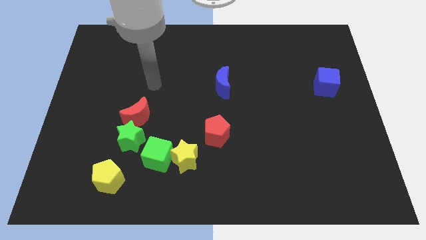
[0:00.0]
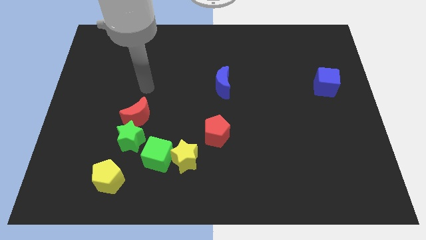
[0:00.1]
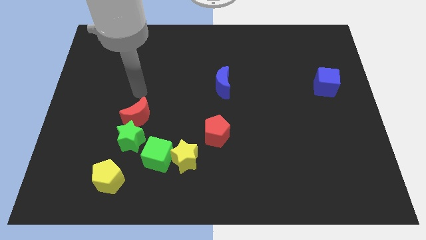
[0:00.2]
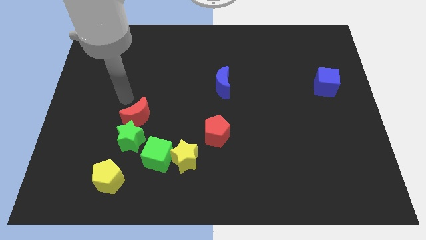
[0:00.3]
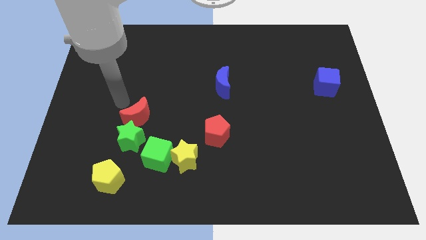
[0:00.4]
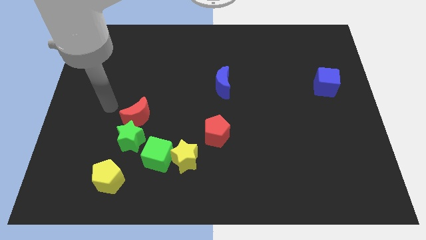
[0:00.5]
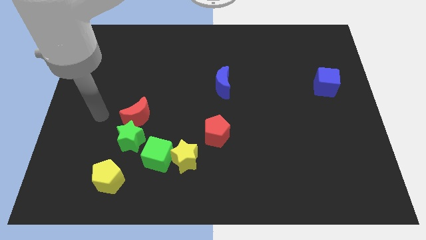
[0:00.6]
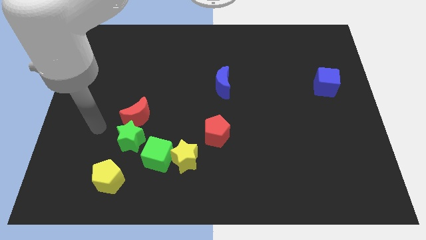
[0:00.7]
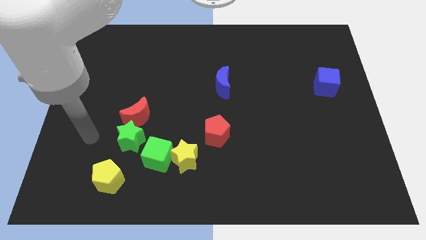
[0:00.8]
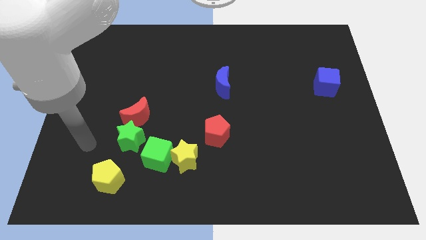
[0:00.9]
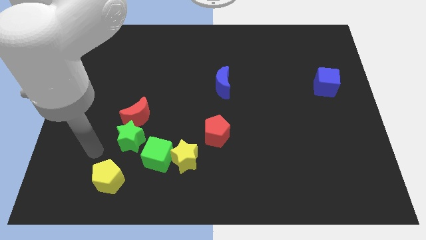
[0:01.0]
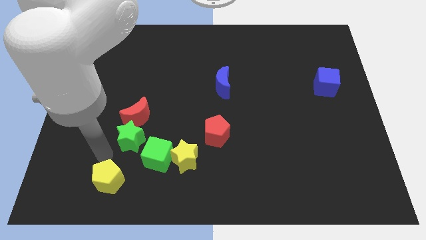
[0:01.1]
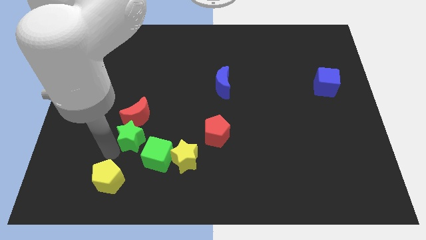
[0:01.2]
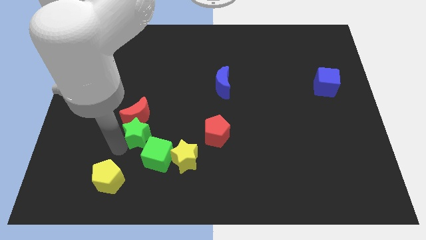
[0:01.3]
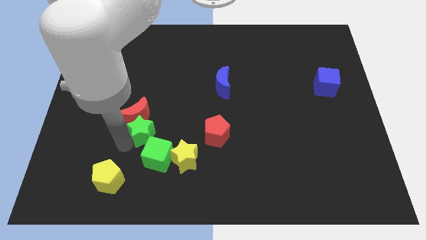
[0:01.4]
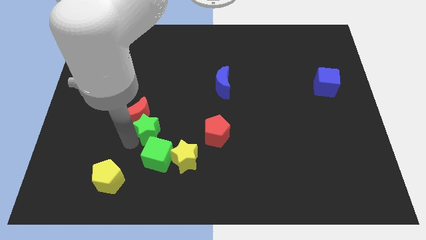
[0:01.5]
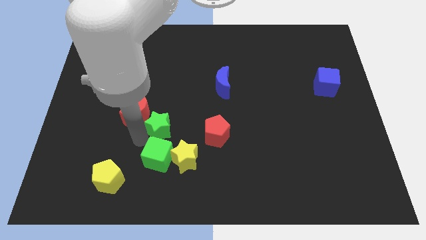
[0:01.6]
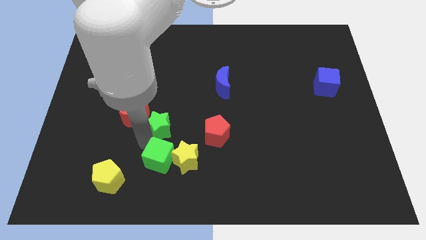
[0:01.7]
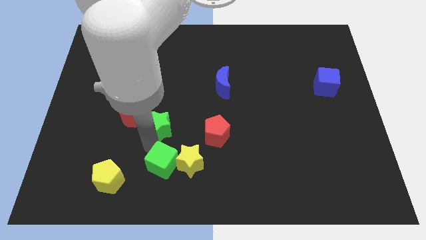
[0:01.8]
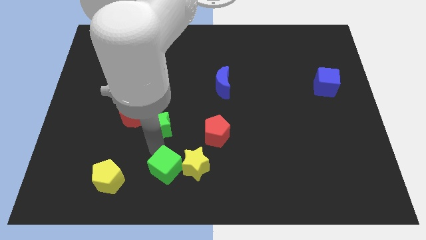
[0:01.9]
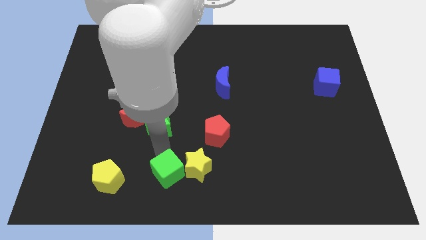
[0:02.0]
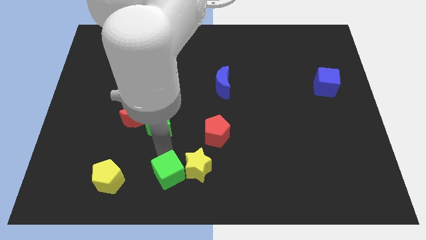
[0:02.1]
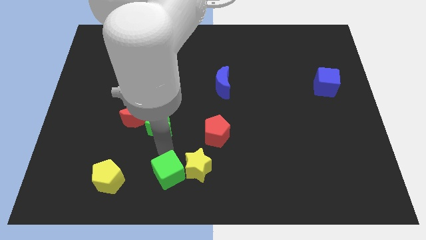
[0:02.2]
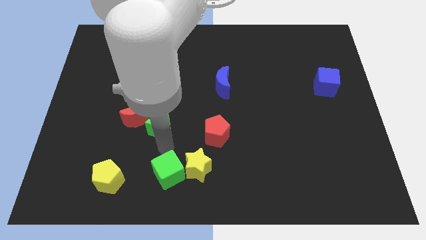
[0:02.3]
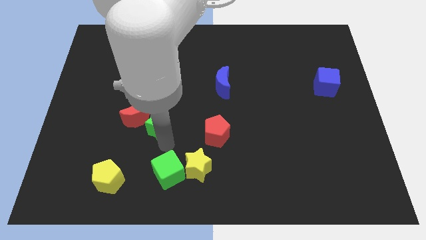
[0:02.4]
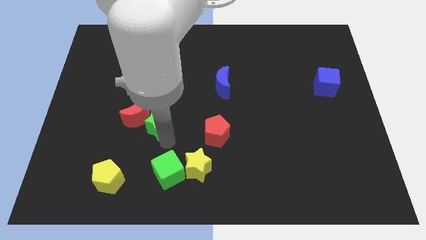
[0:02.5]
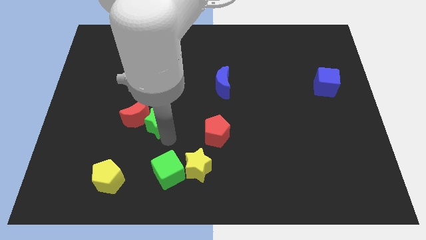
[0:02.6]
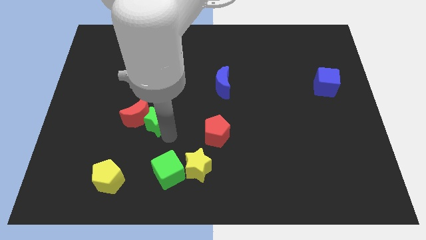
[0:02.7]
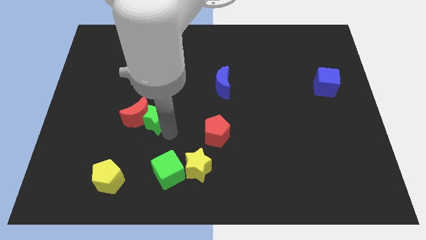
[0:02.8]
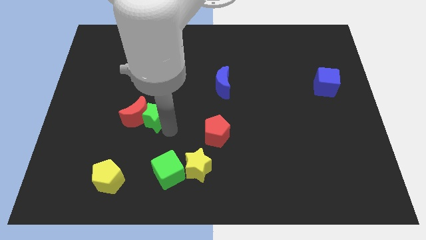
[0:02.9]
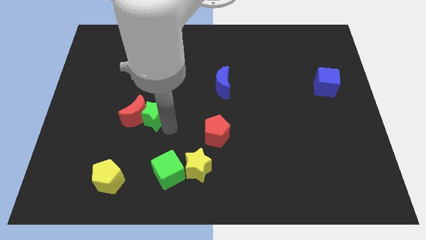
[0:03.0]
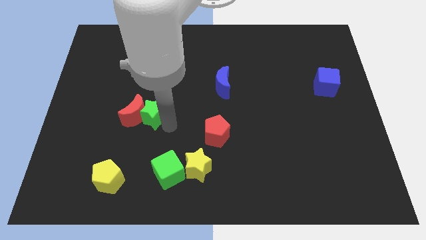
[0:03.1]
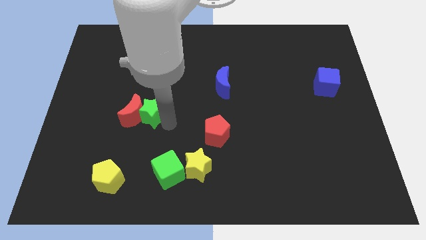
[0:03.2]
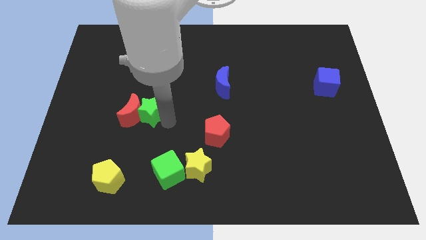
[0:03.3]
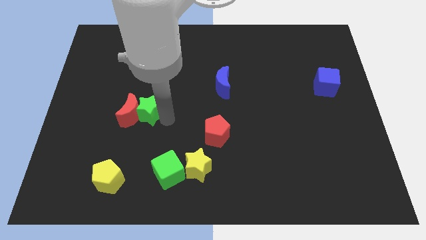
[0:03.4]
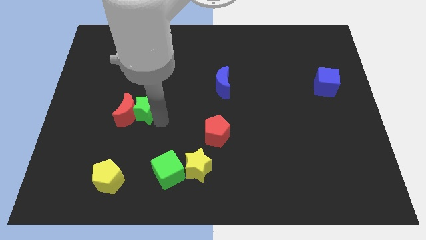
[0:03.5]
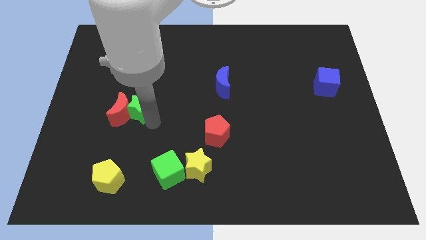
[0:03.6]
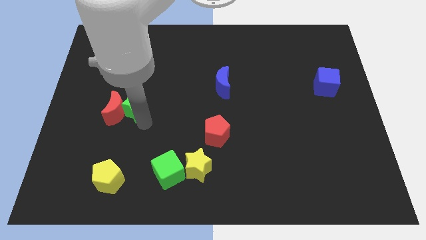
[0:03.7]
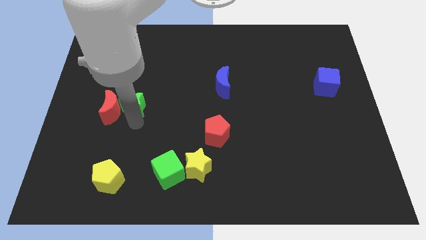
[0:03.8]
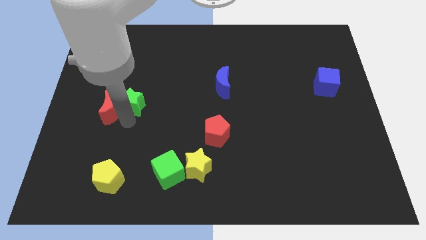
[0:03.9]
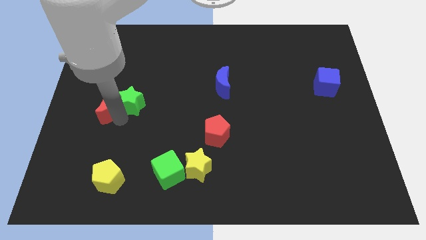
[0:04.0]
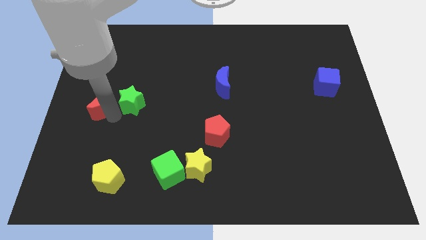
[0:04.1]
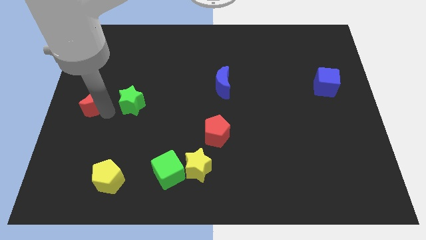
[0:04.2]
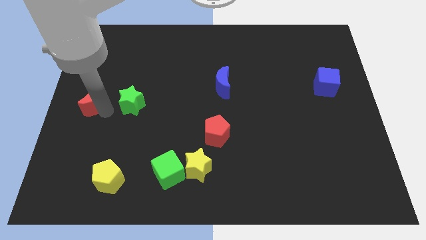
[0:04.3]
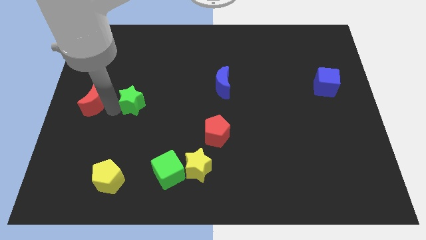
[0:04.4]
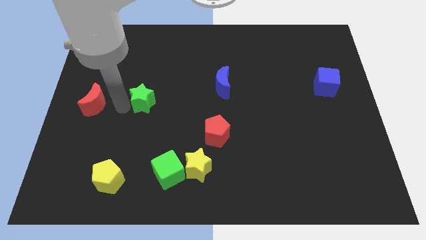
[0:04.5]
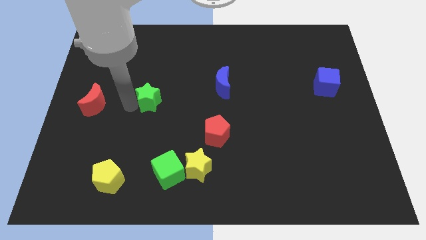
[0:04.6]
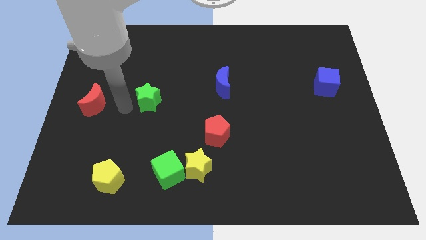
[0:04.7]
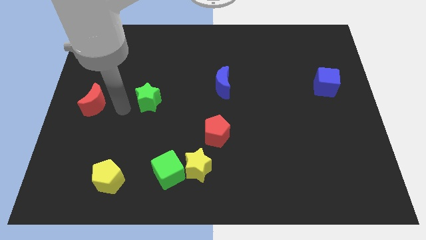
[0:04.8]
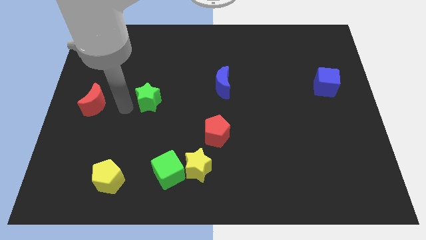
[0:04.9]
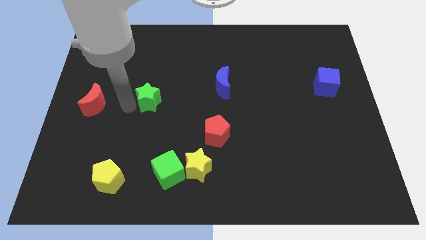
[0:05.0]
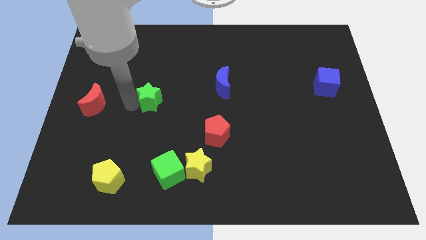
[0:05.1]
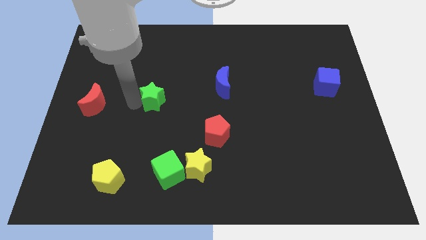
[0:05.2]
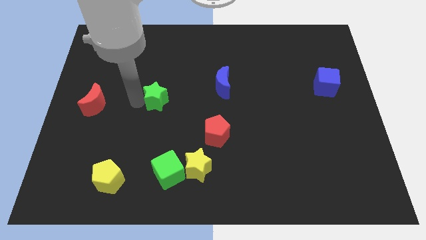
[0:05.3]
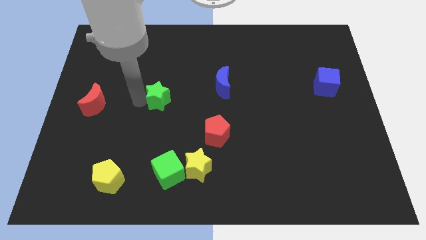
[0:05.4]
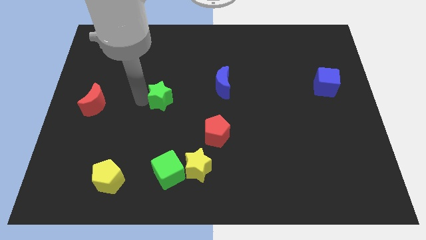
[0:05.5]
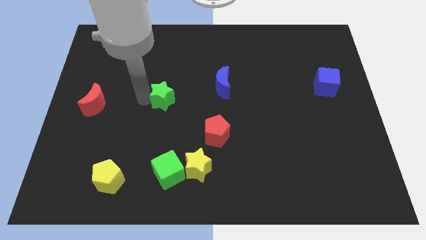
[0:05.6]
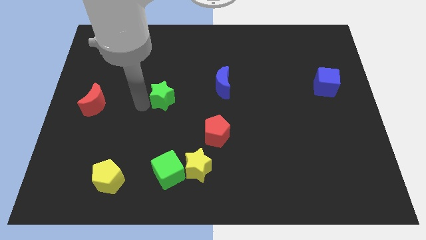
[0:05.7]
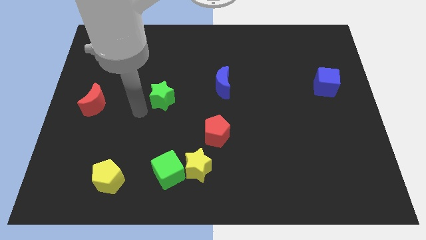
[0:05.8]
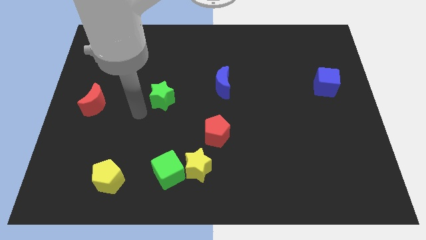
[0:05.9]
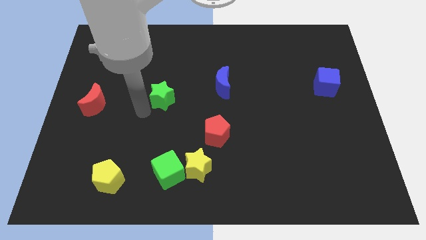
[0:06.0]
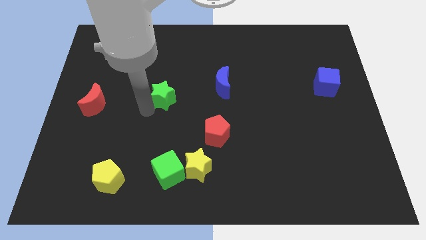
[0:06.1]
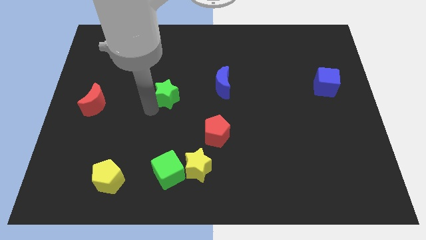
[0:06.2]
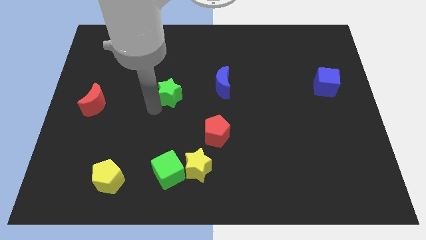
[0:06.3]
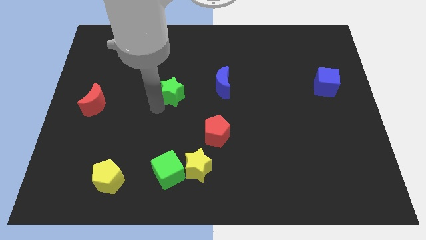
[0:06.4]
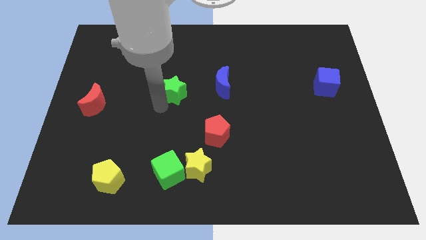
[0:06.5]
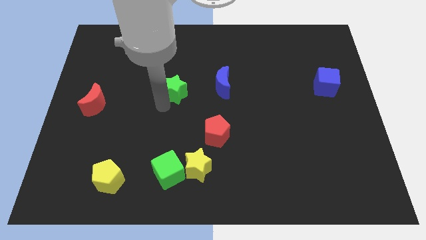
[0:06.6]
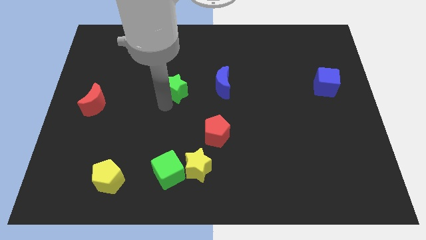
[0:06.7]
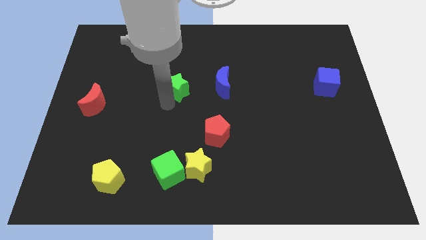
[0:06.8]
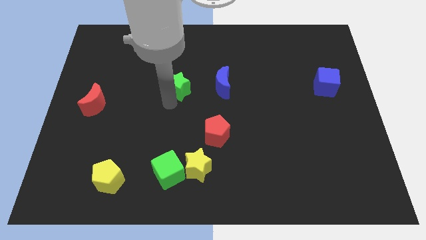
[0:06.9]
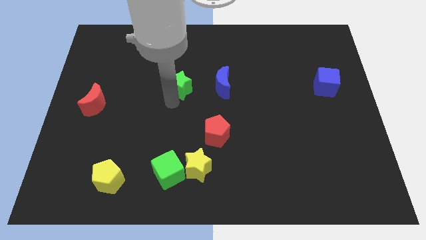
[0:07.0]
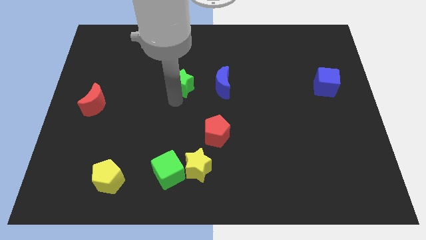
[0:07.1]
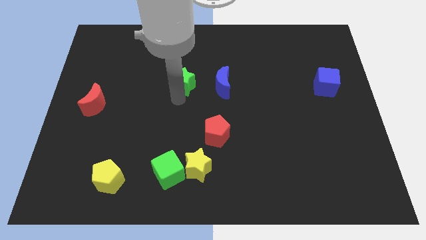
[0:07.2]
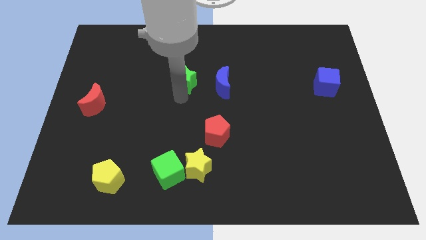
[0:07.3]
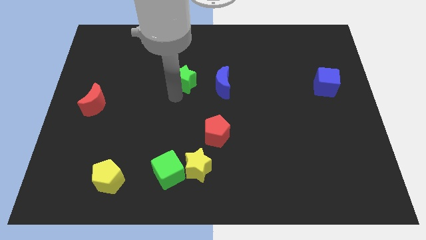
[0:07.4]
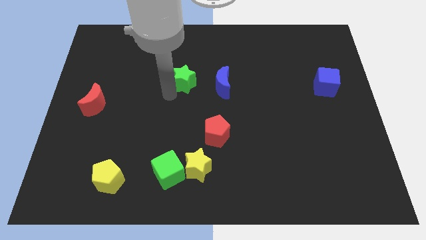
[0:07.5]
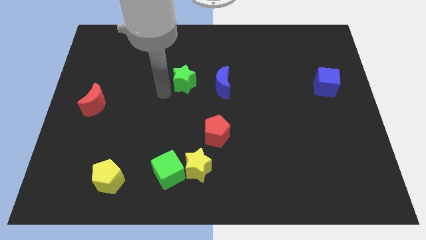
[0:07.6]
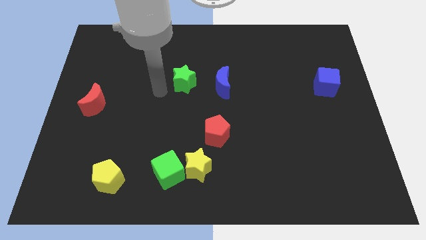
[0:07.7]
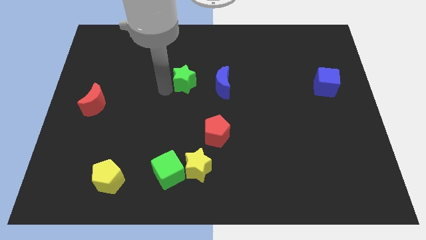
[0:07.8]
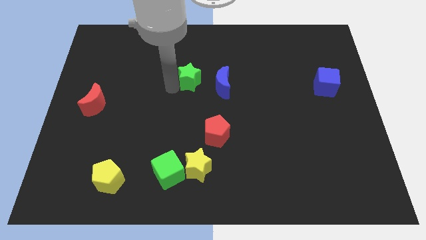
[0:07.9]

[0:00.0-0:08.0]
push the green star up and to the right diagonally

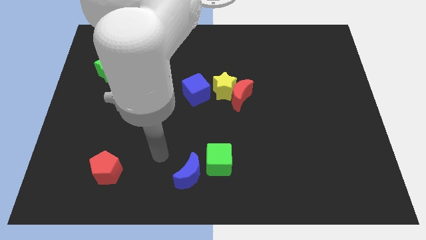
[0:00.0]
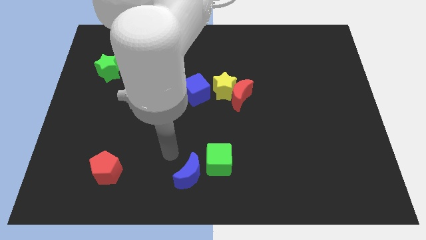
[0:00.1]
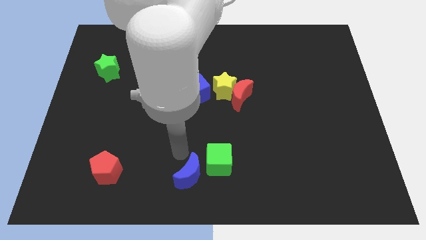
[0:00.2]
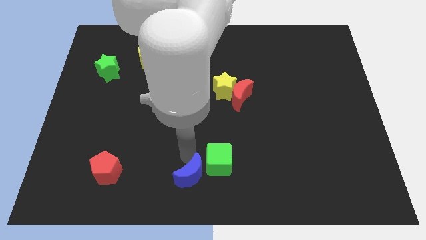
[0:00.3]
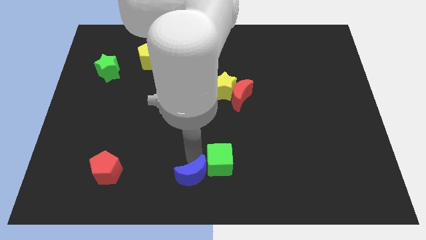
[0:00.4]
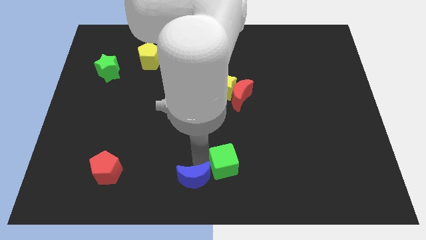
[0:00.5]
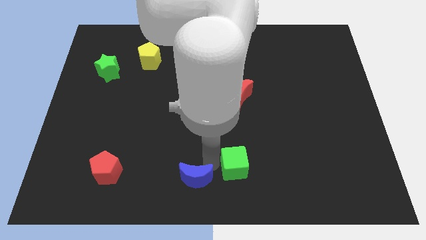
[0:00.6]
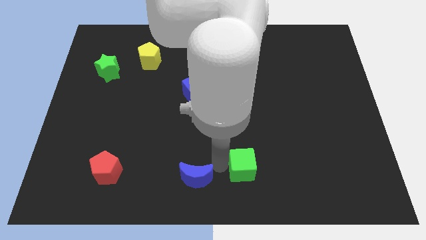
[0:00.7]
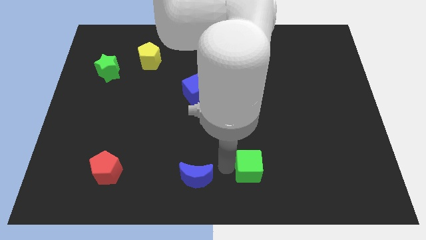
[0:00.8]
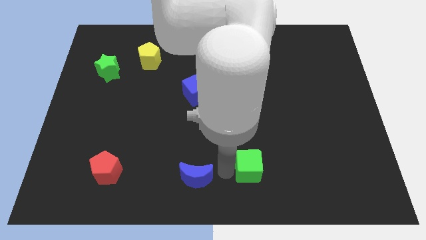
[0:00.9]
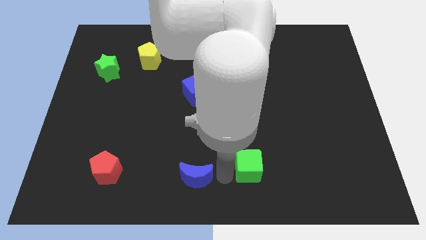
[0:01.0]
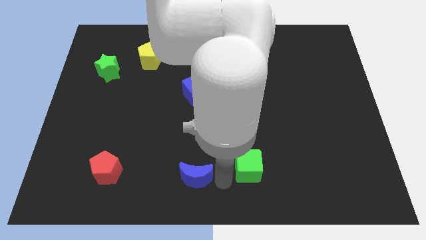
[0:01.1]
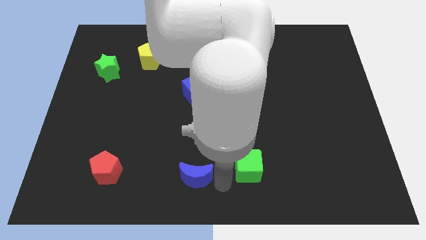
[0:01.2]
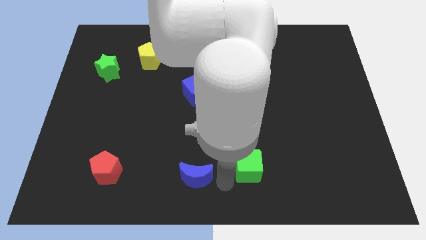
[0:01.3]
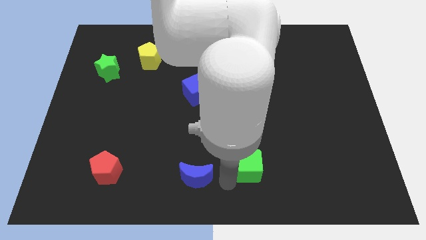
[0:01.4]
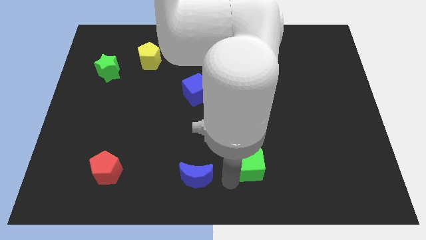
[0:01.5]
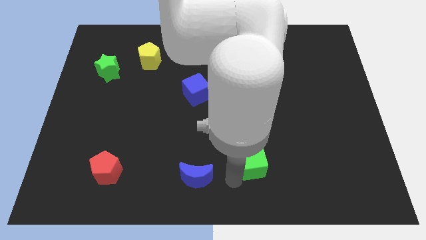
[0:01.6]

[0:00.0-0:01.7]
move the green cube somewhat right
